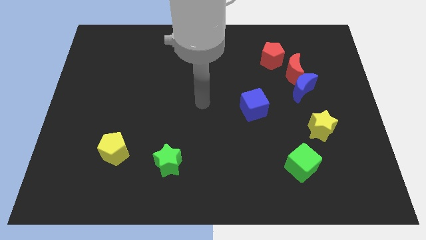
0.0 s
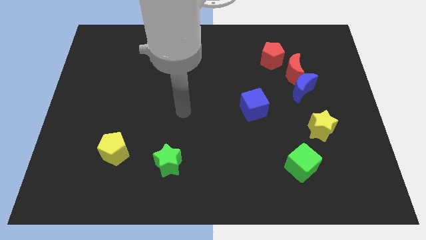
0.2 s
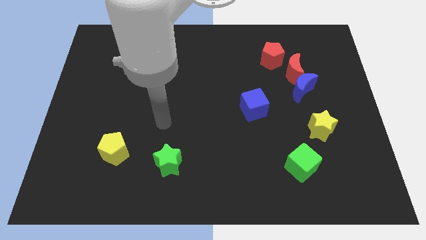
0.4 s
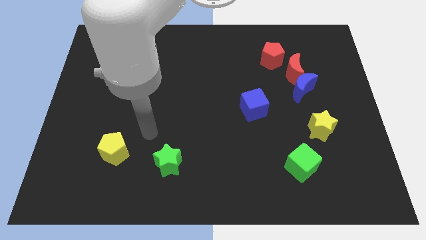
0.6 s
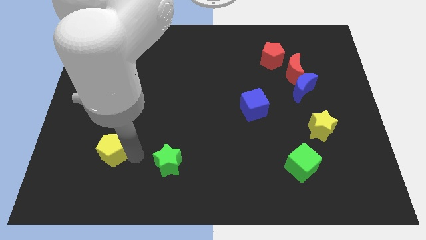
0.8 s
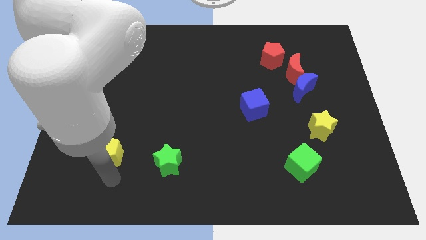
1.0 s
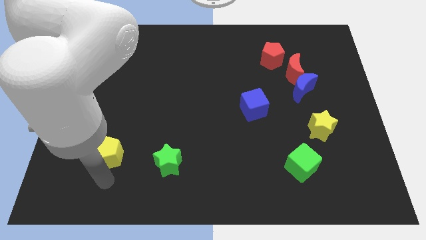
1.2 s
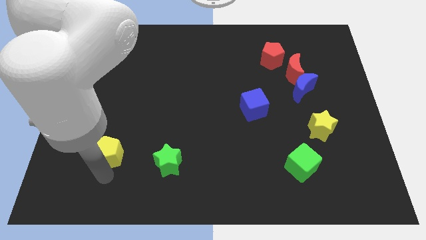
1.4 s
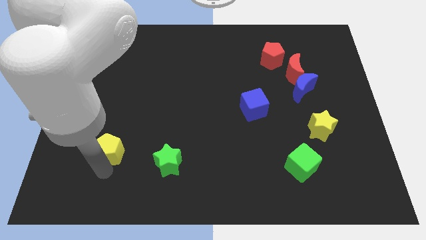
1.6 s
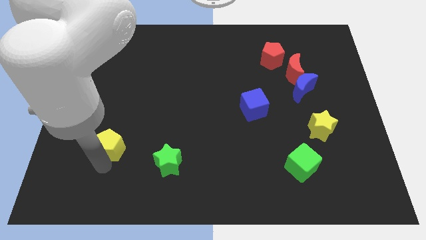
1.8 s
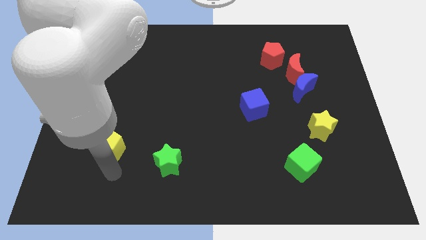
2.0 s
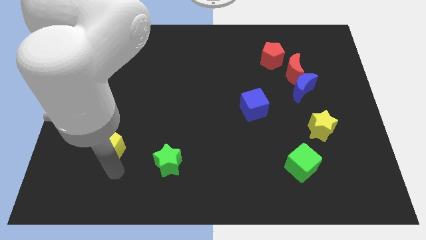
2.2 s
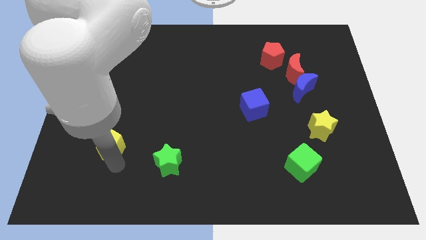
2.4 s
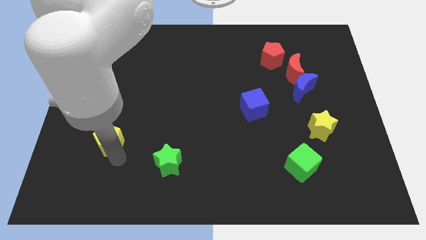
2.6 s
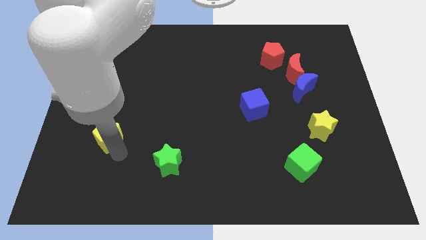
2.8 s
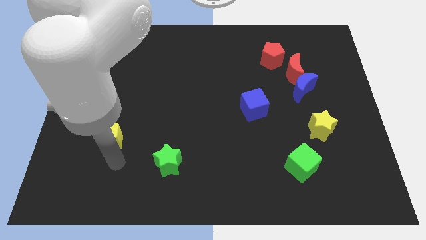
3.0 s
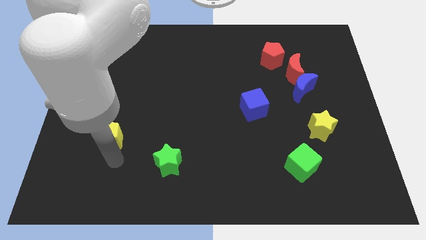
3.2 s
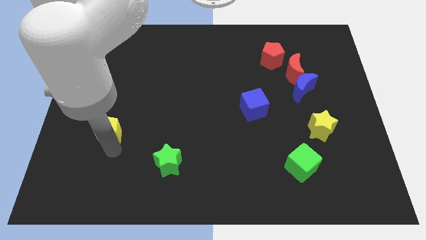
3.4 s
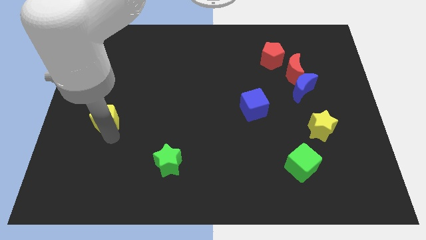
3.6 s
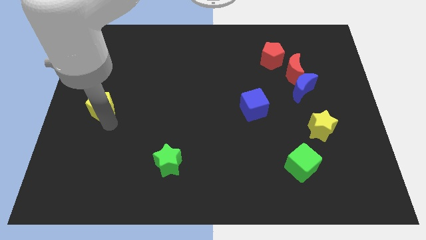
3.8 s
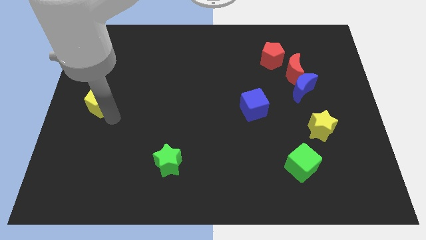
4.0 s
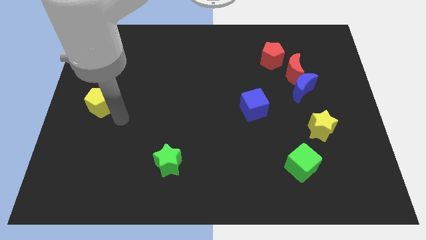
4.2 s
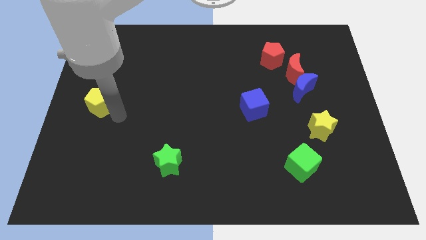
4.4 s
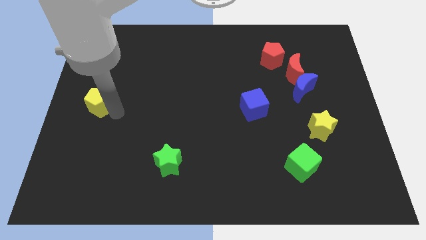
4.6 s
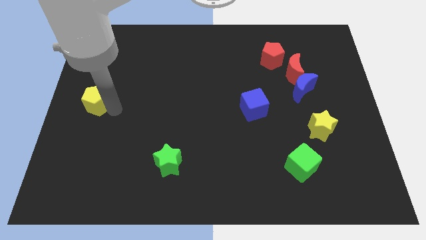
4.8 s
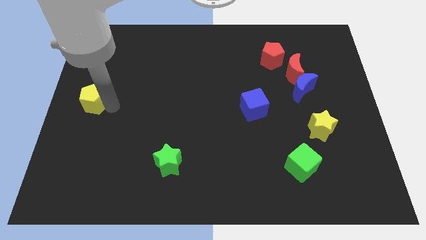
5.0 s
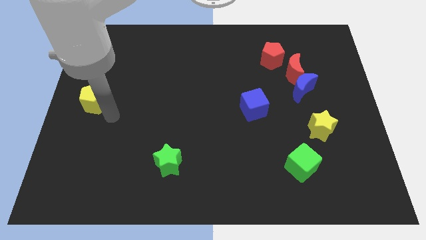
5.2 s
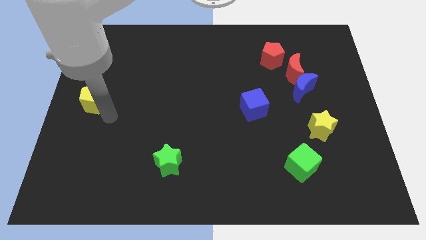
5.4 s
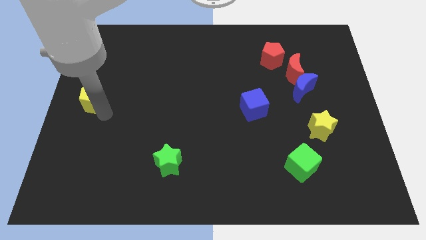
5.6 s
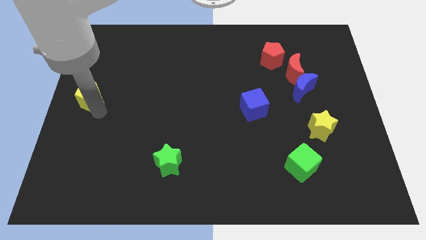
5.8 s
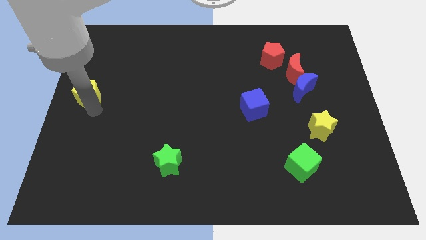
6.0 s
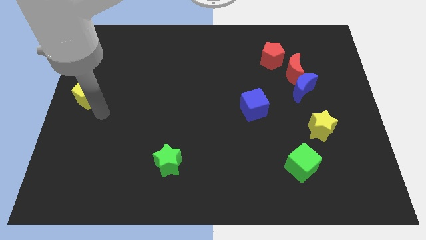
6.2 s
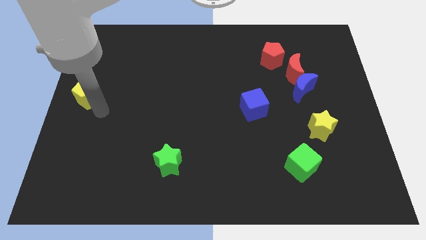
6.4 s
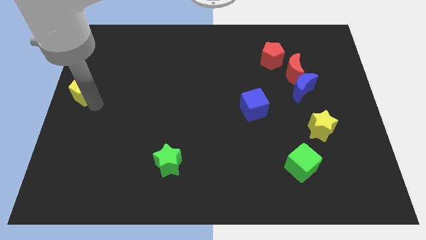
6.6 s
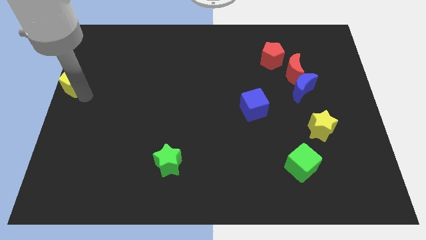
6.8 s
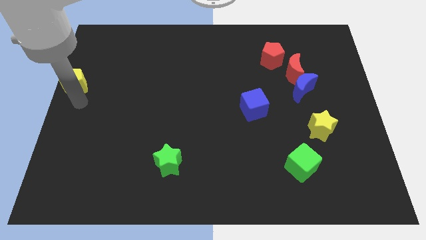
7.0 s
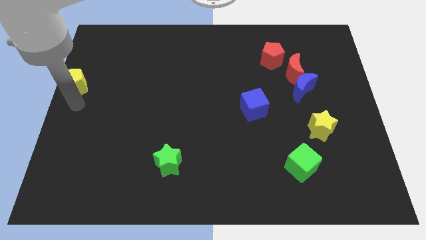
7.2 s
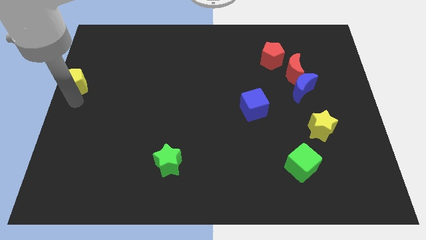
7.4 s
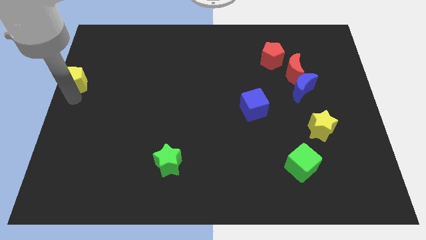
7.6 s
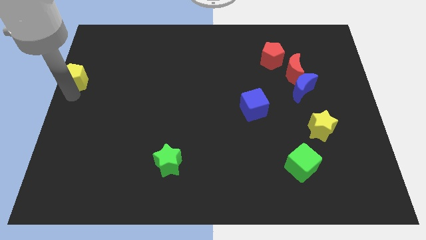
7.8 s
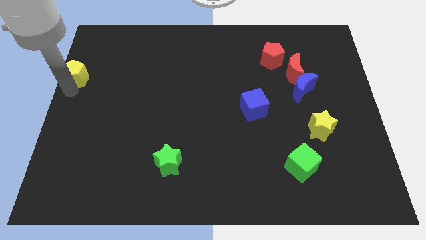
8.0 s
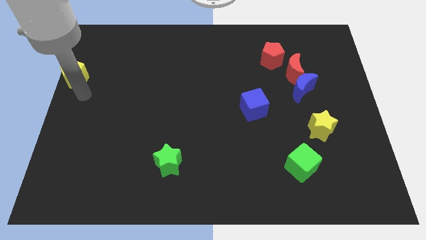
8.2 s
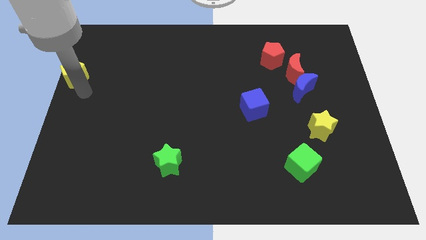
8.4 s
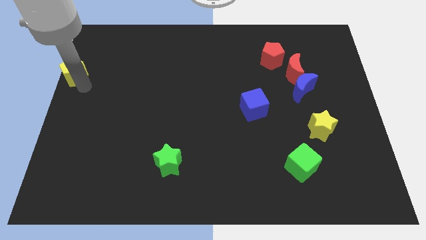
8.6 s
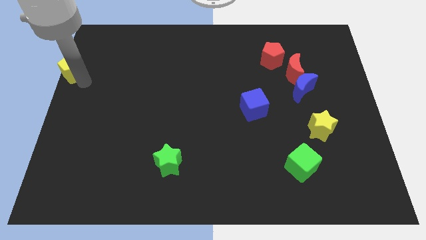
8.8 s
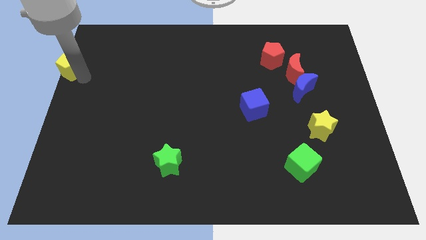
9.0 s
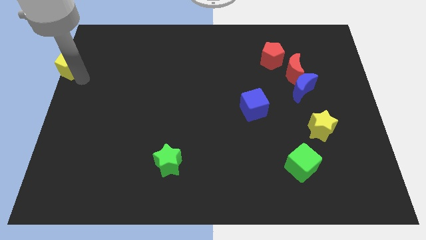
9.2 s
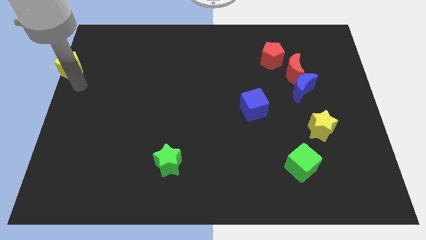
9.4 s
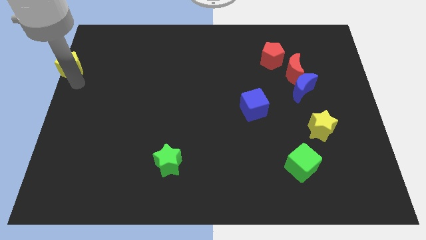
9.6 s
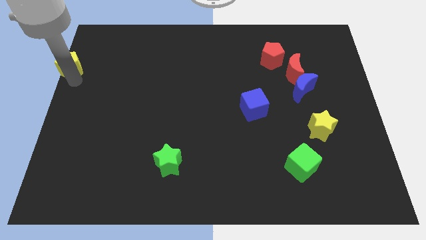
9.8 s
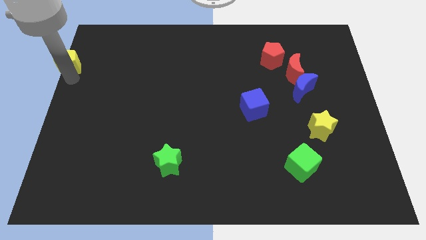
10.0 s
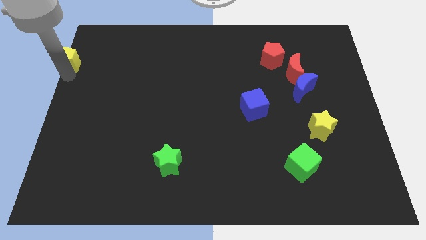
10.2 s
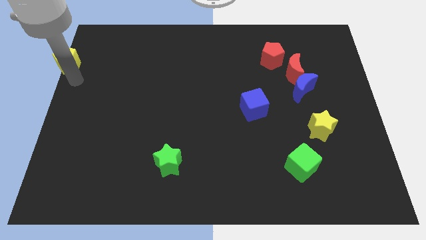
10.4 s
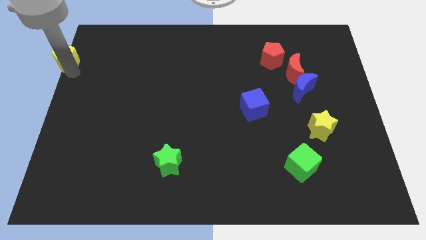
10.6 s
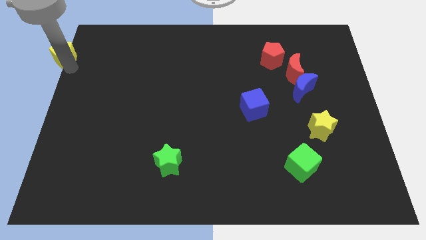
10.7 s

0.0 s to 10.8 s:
push the yellow pentagon to the top left
